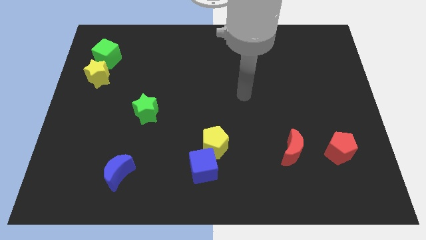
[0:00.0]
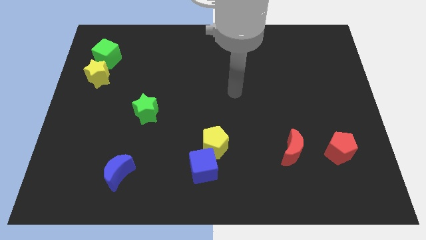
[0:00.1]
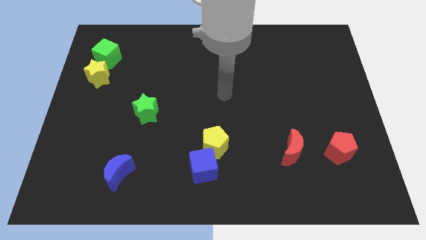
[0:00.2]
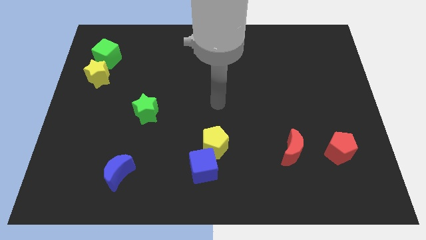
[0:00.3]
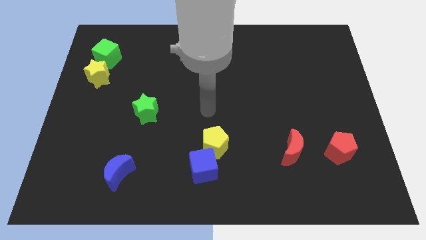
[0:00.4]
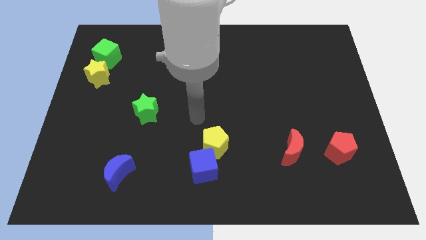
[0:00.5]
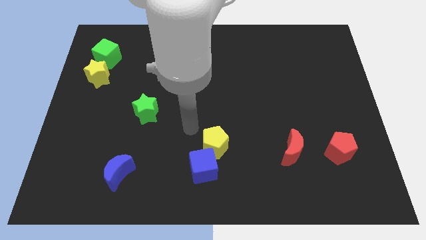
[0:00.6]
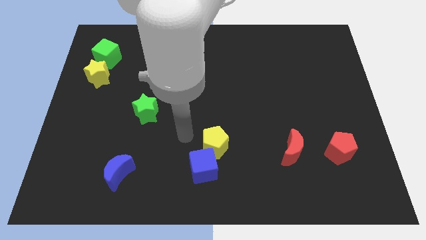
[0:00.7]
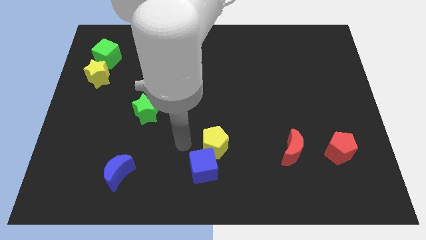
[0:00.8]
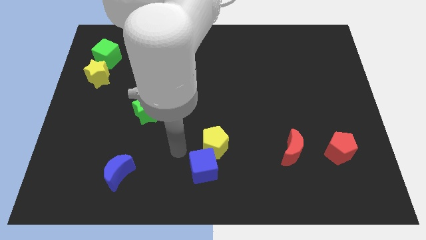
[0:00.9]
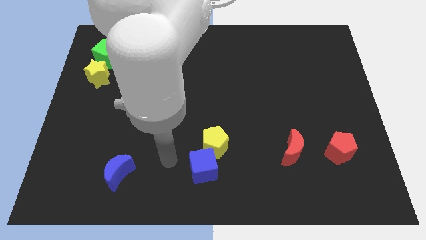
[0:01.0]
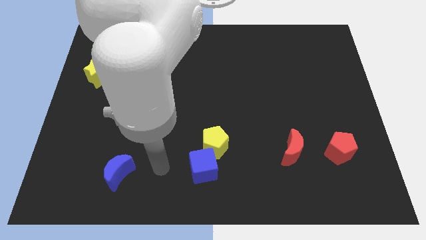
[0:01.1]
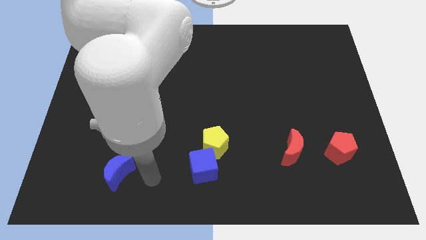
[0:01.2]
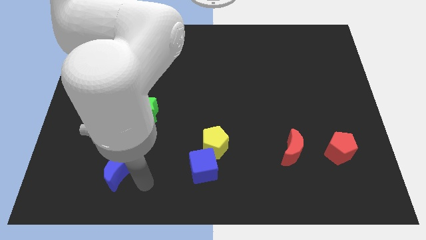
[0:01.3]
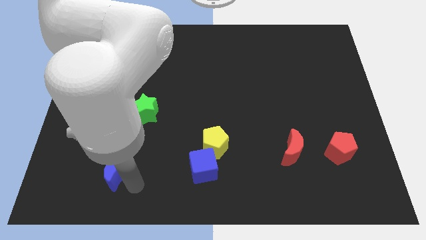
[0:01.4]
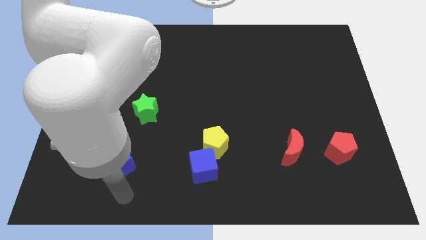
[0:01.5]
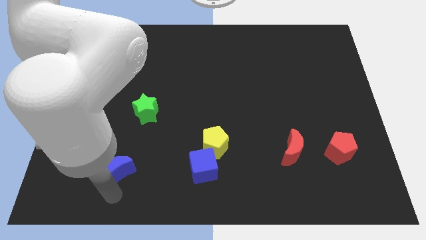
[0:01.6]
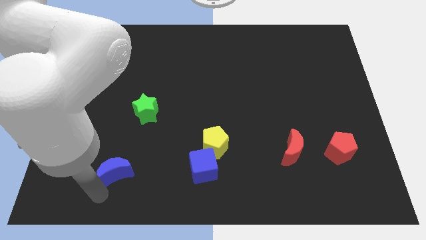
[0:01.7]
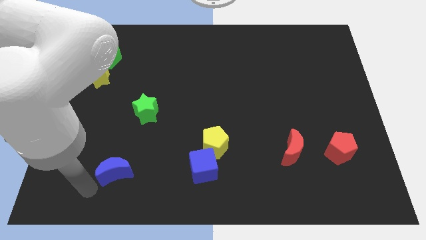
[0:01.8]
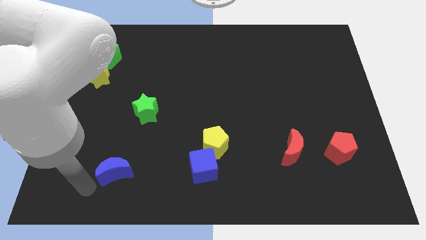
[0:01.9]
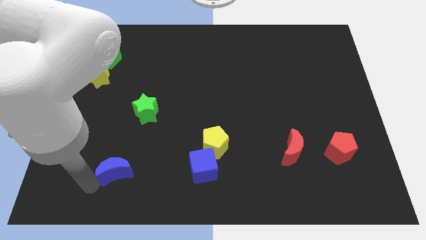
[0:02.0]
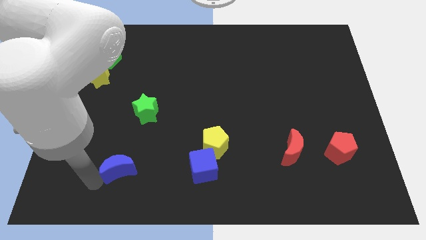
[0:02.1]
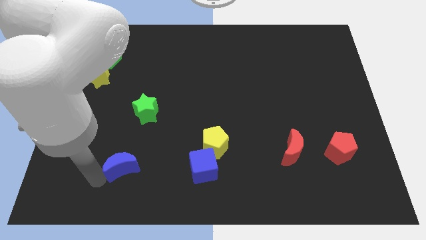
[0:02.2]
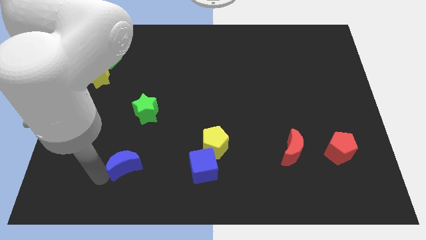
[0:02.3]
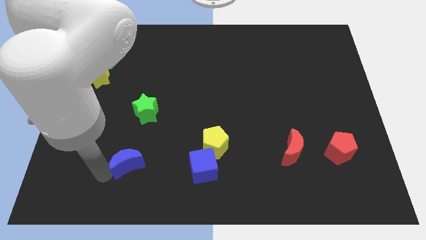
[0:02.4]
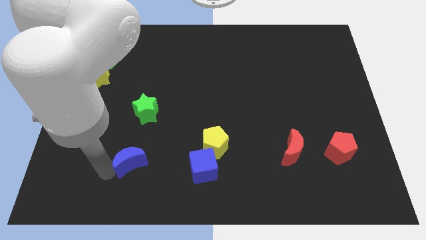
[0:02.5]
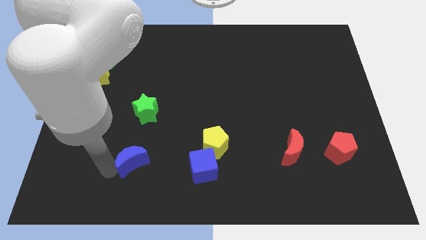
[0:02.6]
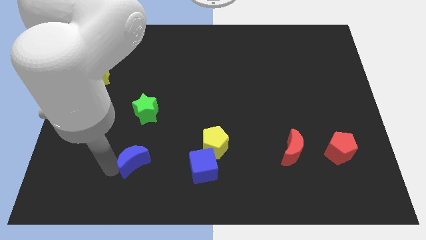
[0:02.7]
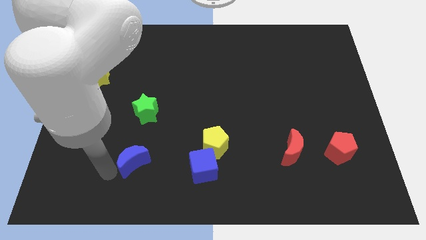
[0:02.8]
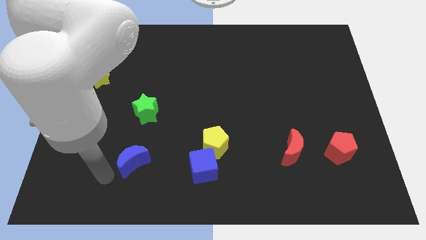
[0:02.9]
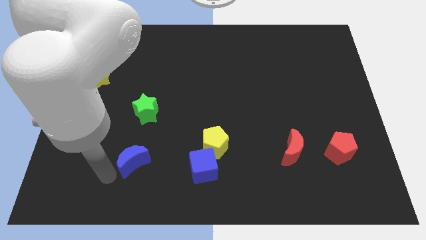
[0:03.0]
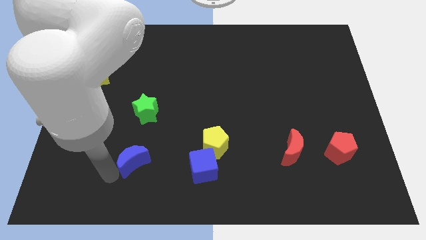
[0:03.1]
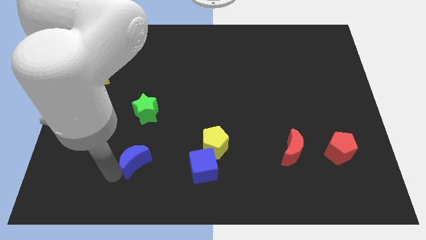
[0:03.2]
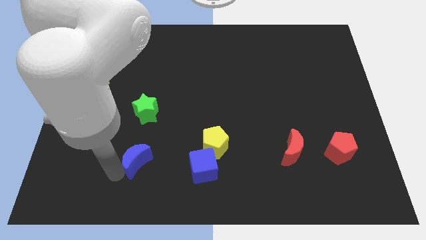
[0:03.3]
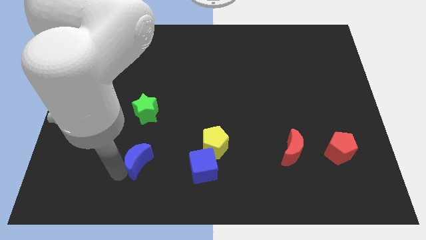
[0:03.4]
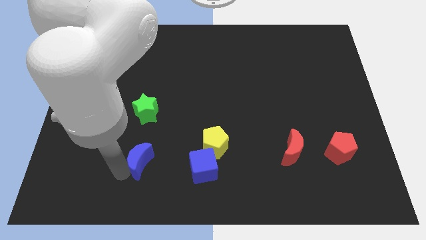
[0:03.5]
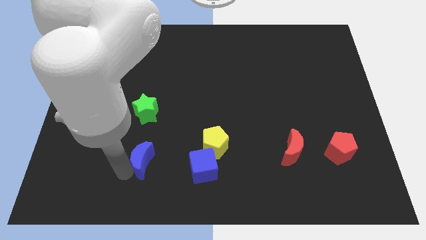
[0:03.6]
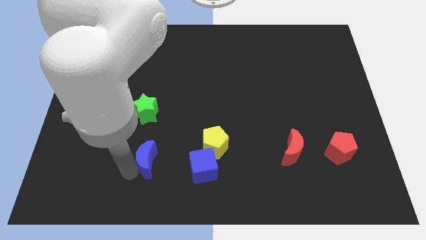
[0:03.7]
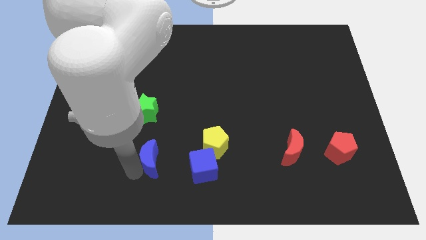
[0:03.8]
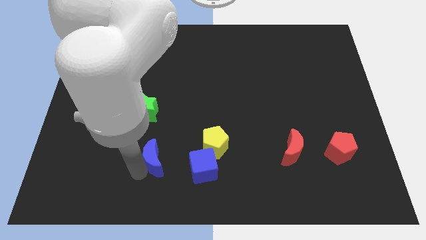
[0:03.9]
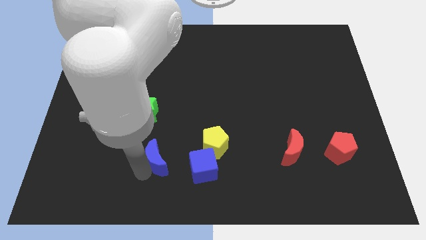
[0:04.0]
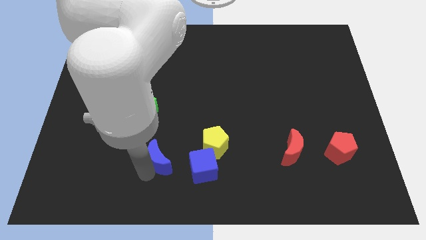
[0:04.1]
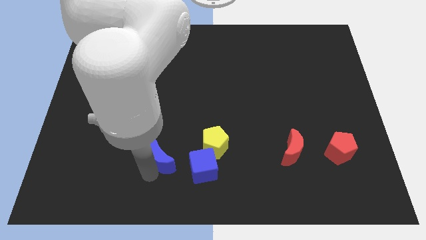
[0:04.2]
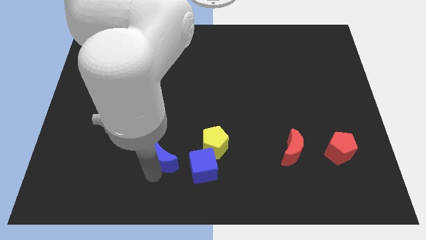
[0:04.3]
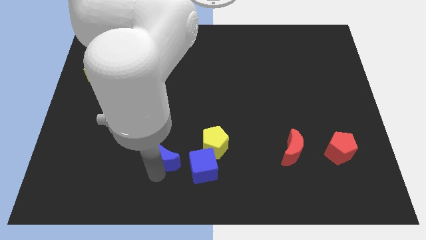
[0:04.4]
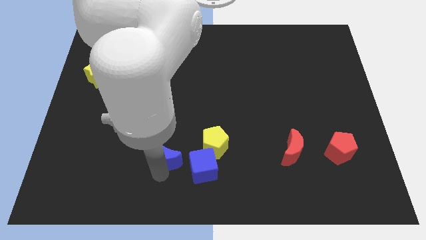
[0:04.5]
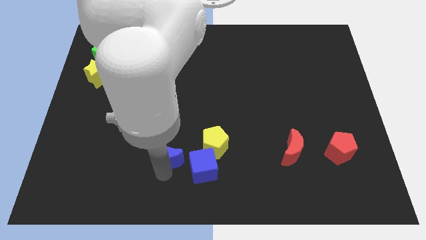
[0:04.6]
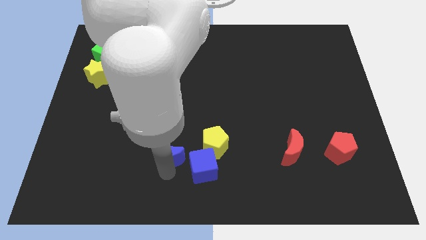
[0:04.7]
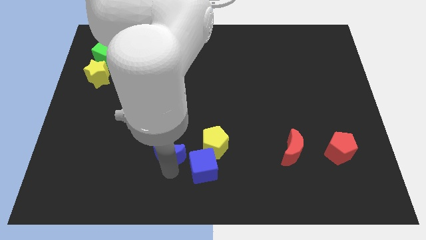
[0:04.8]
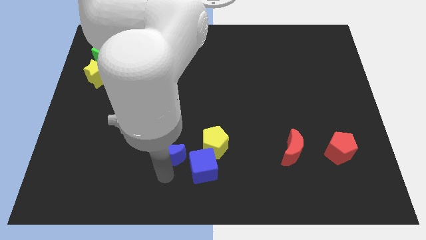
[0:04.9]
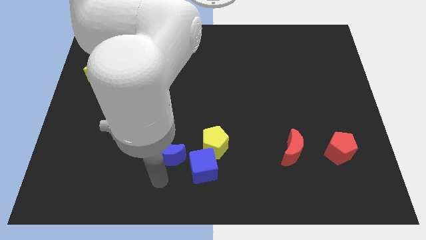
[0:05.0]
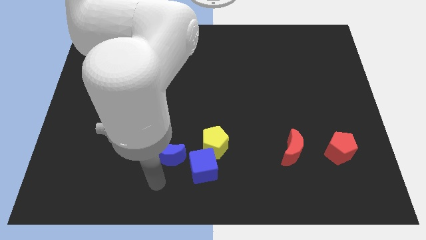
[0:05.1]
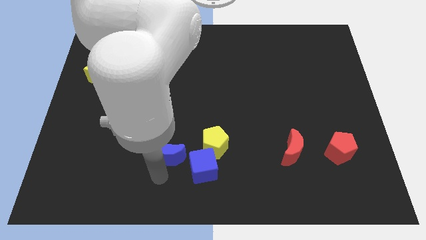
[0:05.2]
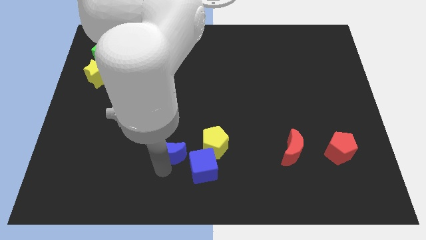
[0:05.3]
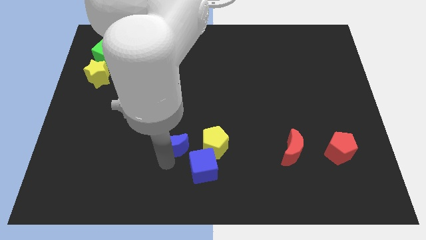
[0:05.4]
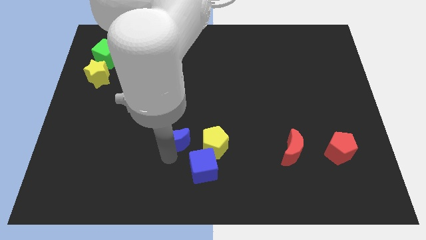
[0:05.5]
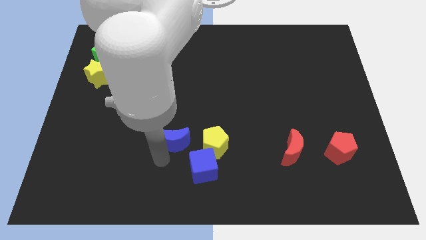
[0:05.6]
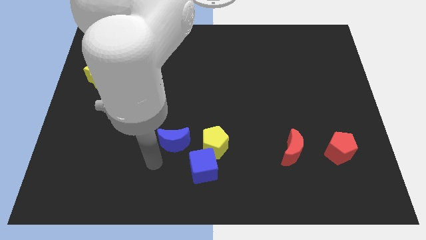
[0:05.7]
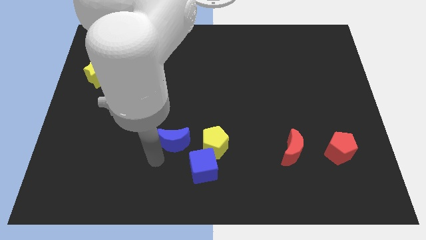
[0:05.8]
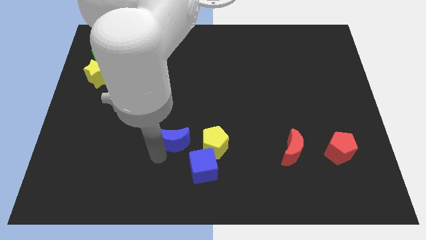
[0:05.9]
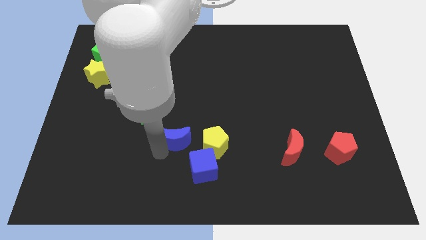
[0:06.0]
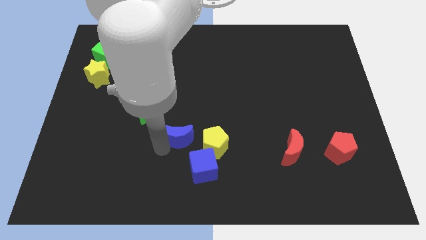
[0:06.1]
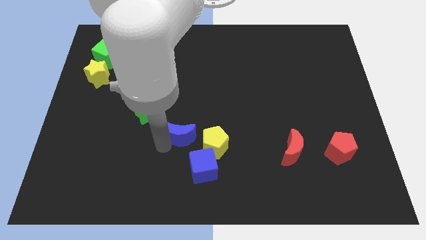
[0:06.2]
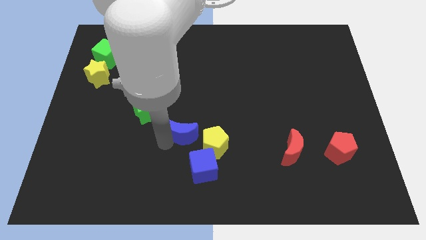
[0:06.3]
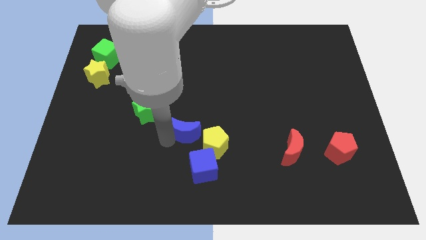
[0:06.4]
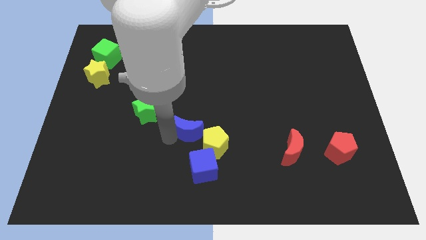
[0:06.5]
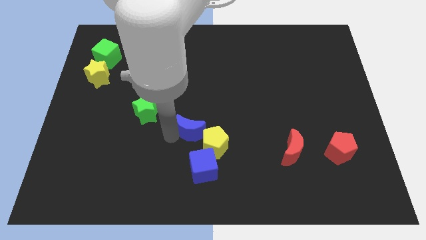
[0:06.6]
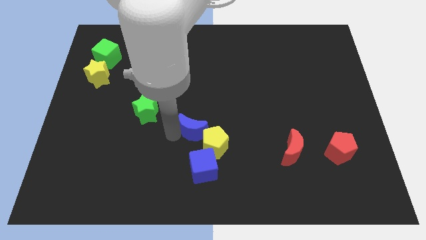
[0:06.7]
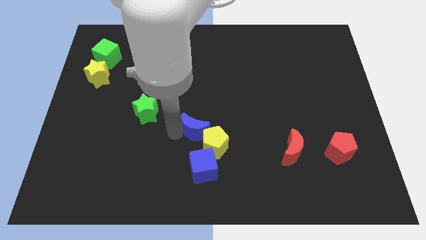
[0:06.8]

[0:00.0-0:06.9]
push the blue moon to the top side of the yellow pentagon

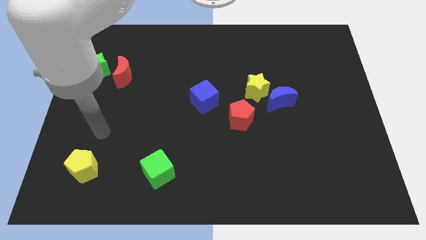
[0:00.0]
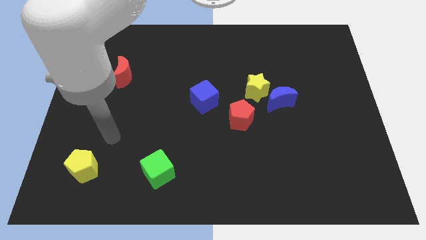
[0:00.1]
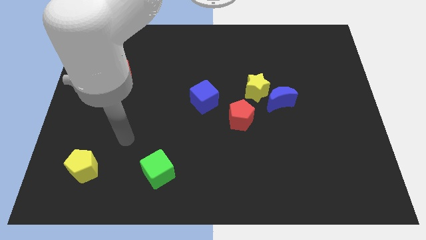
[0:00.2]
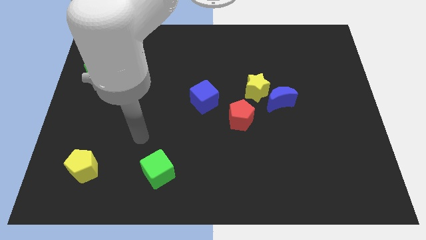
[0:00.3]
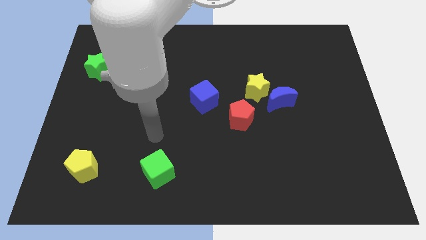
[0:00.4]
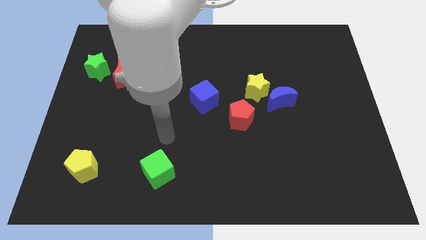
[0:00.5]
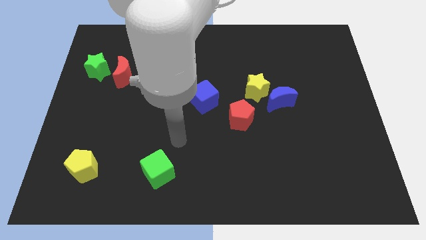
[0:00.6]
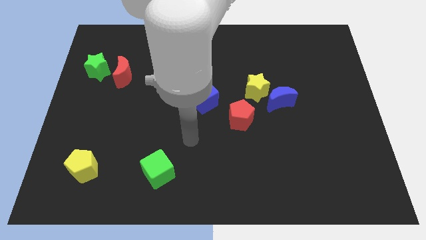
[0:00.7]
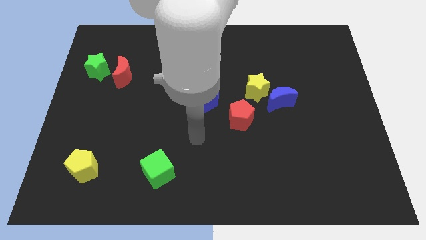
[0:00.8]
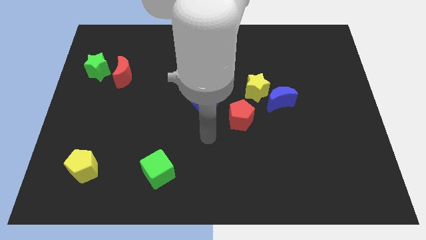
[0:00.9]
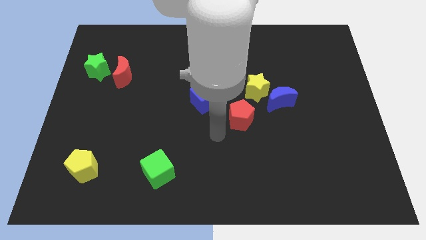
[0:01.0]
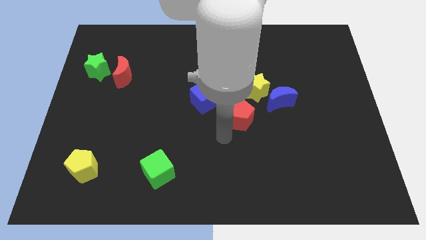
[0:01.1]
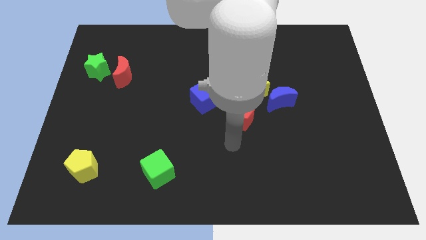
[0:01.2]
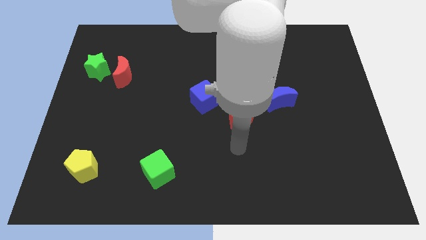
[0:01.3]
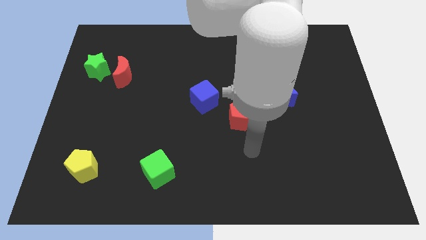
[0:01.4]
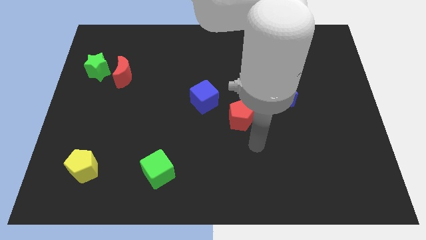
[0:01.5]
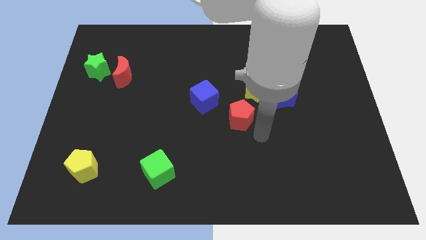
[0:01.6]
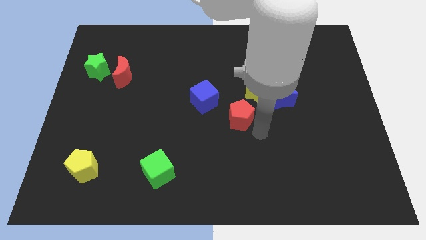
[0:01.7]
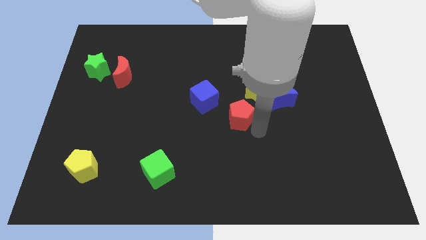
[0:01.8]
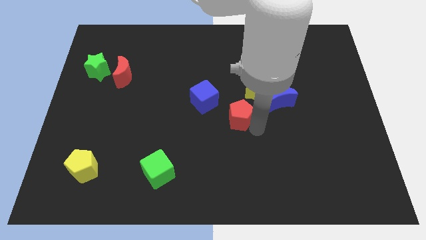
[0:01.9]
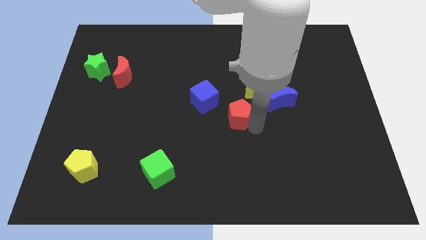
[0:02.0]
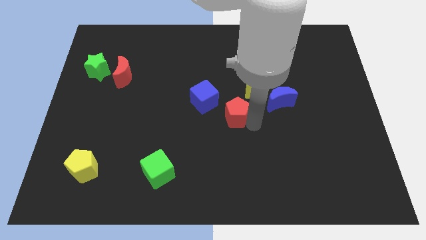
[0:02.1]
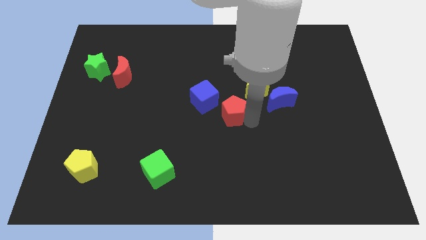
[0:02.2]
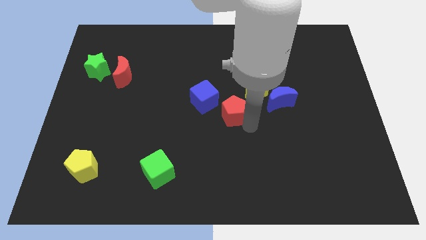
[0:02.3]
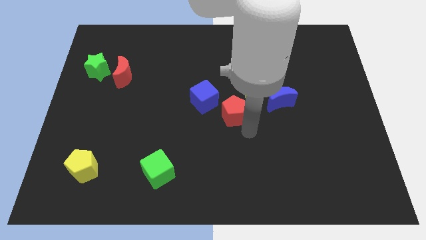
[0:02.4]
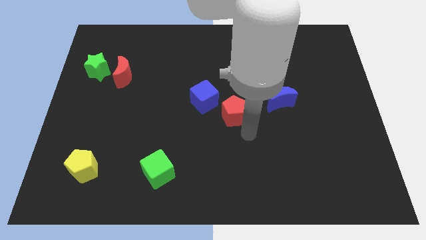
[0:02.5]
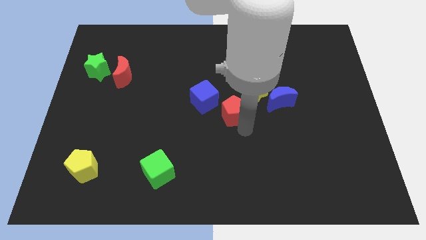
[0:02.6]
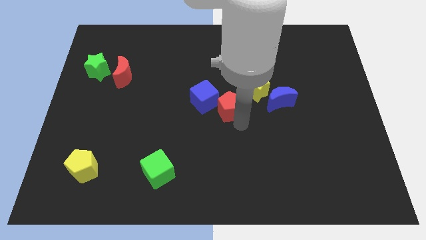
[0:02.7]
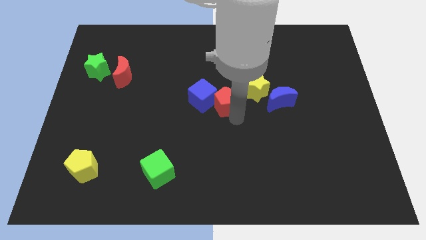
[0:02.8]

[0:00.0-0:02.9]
slide the red pentagon left of the yellow star
